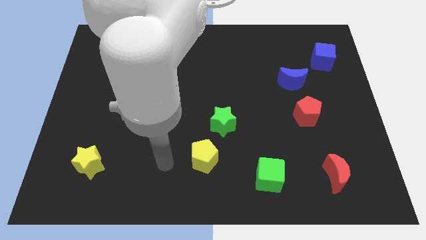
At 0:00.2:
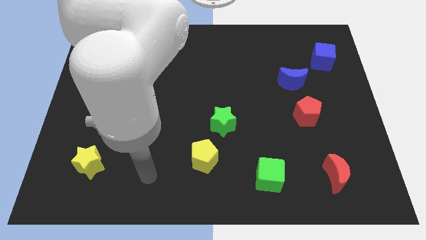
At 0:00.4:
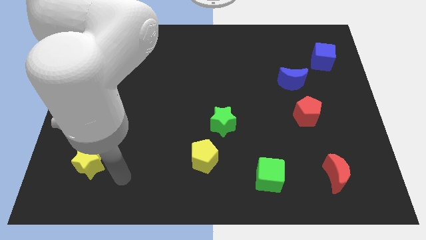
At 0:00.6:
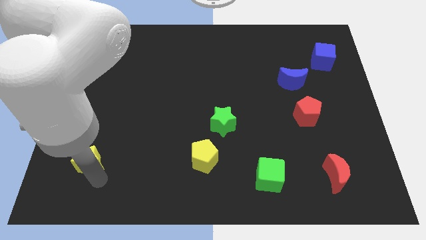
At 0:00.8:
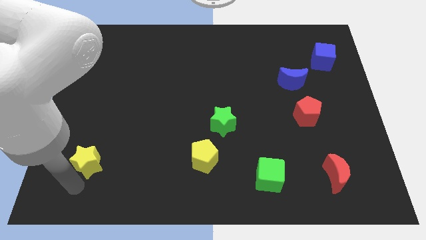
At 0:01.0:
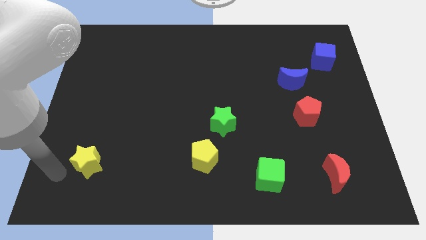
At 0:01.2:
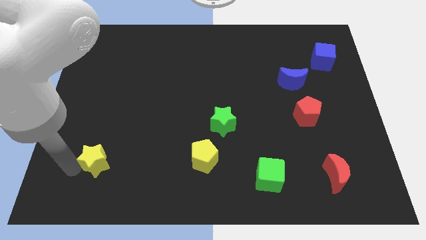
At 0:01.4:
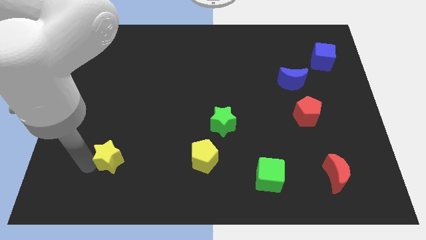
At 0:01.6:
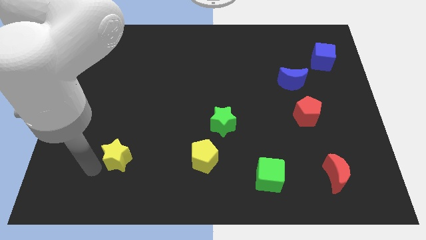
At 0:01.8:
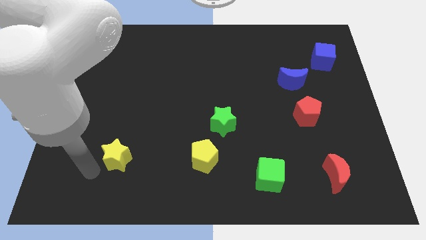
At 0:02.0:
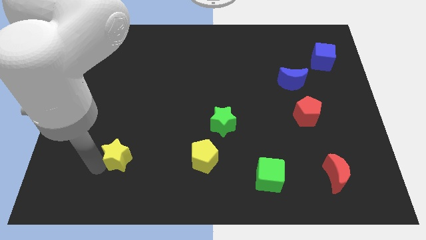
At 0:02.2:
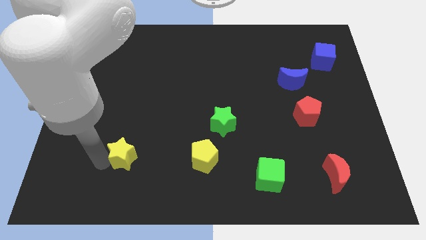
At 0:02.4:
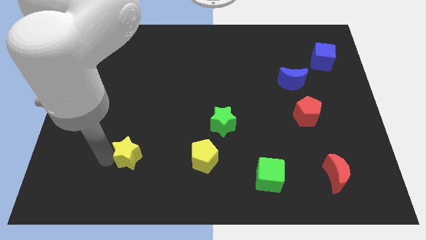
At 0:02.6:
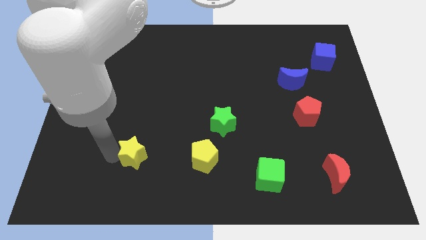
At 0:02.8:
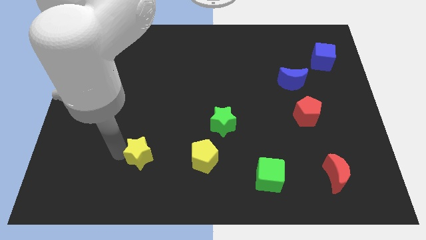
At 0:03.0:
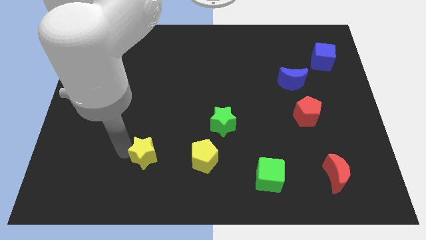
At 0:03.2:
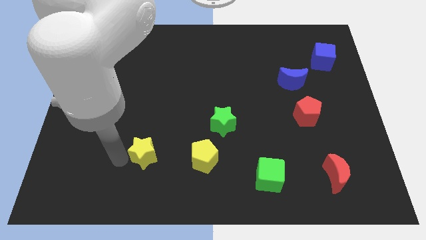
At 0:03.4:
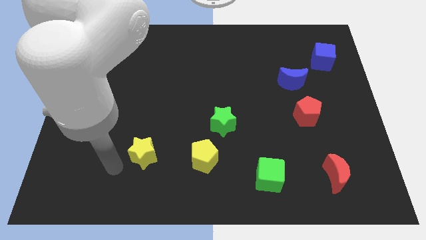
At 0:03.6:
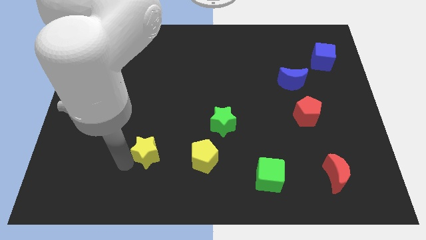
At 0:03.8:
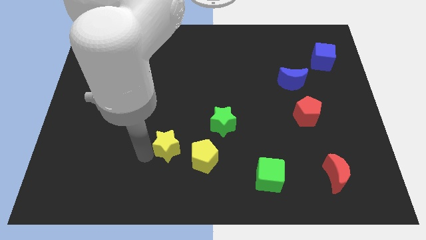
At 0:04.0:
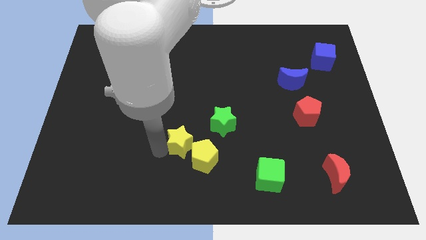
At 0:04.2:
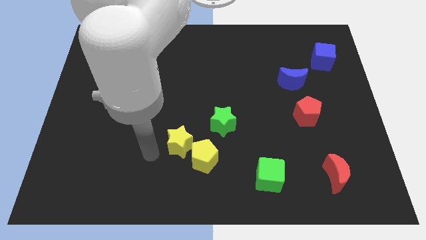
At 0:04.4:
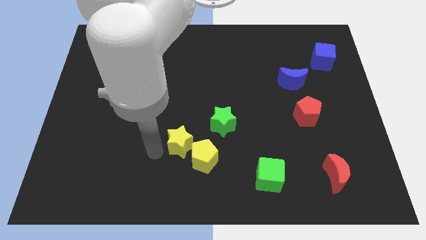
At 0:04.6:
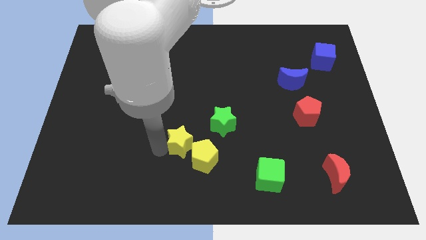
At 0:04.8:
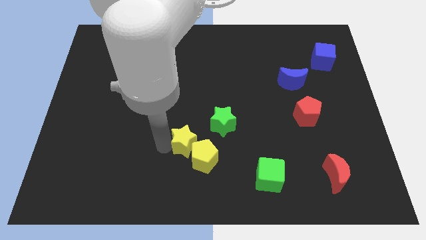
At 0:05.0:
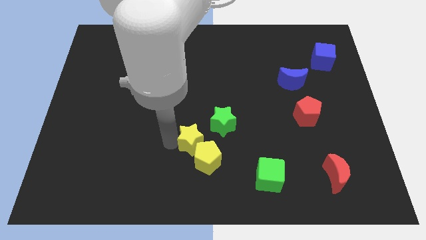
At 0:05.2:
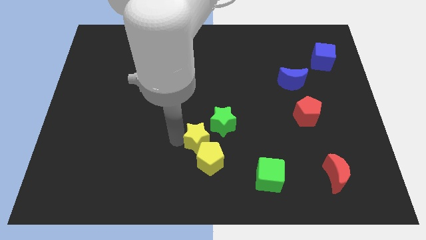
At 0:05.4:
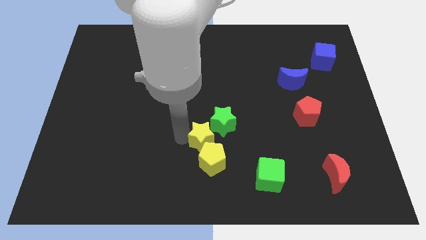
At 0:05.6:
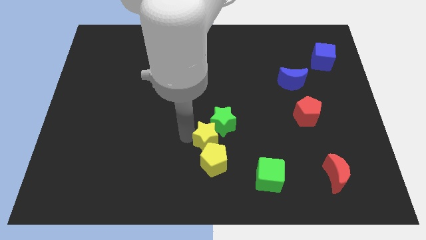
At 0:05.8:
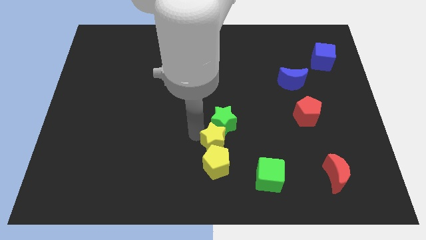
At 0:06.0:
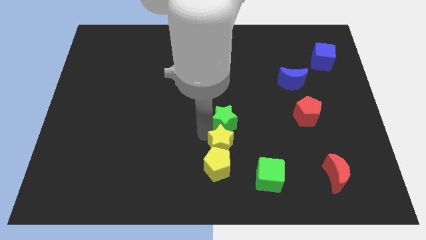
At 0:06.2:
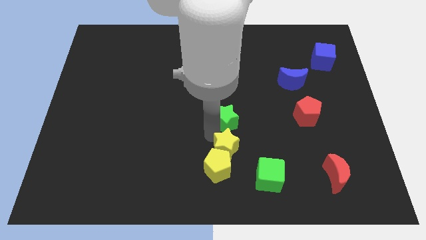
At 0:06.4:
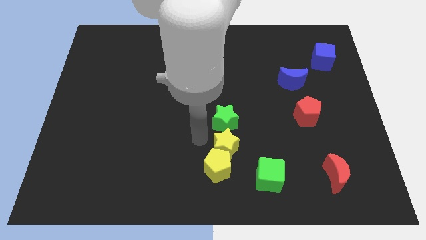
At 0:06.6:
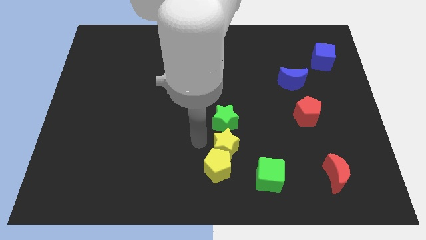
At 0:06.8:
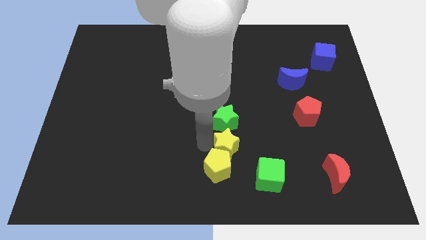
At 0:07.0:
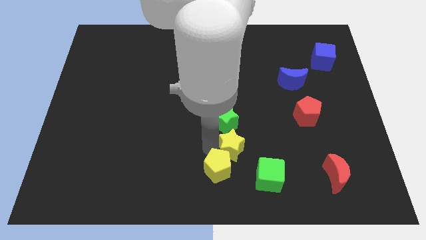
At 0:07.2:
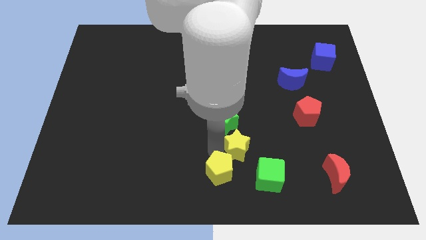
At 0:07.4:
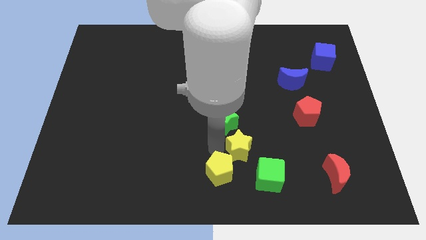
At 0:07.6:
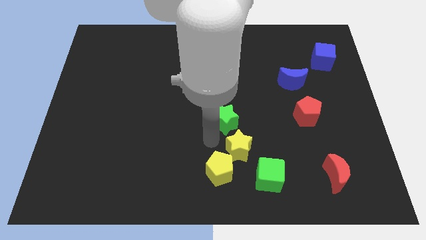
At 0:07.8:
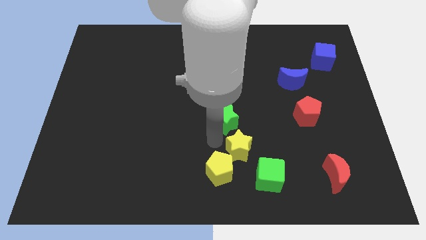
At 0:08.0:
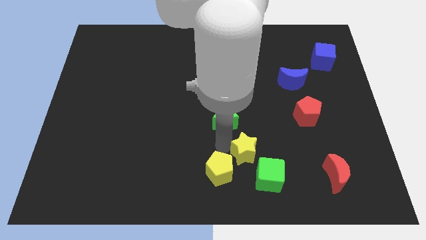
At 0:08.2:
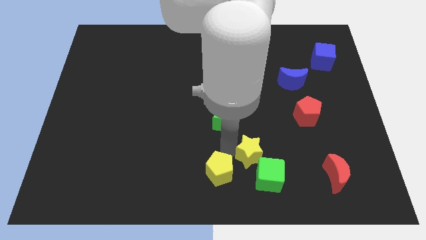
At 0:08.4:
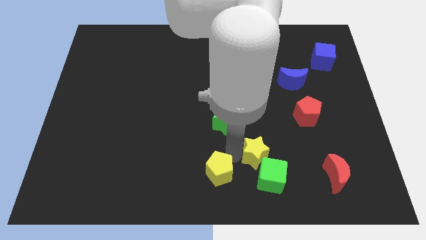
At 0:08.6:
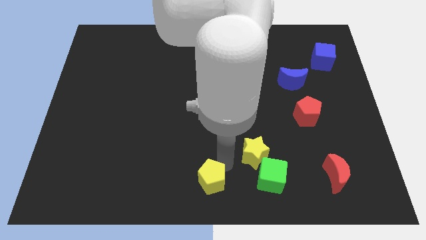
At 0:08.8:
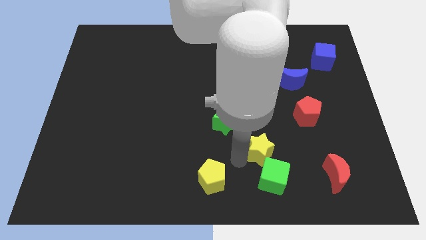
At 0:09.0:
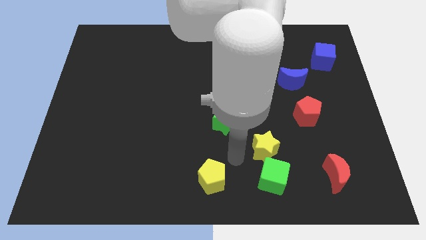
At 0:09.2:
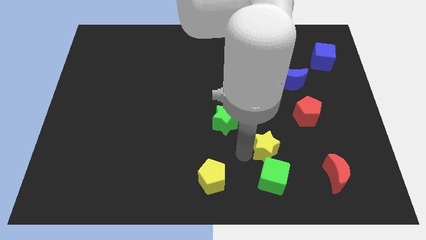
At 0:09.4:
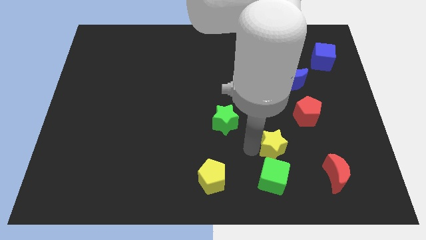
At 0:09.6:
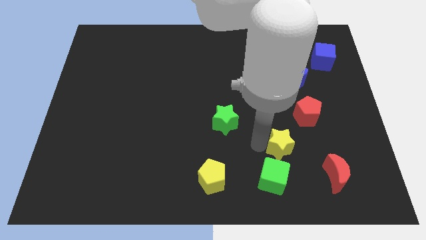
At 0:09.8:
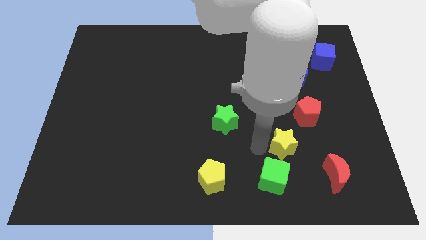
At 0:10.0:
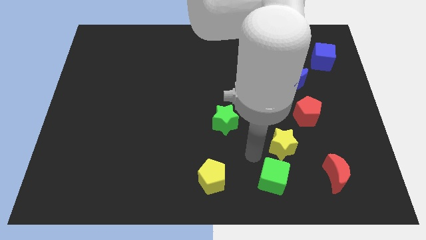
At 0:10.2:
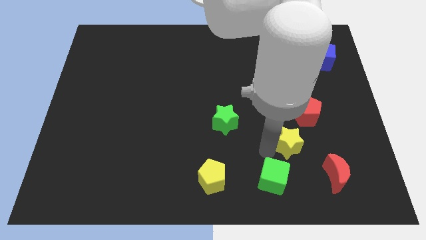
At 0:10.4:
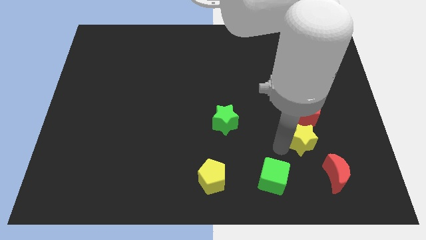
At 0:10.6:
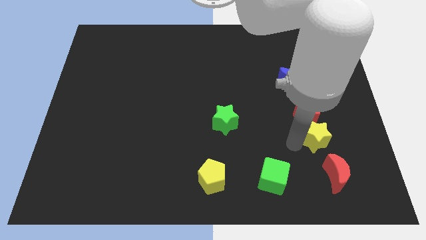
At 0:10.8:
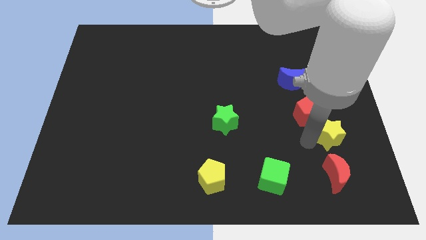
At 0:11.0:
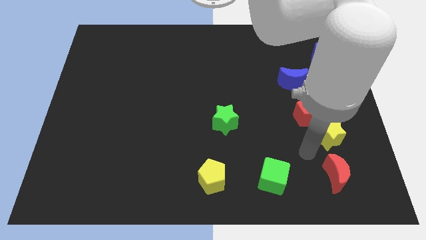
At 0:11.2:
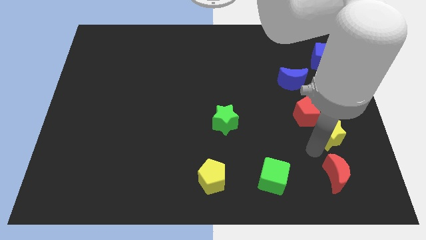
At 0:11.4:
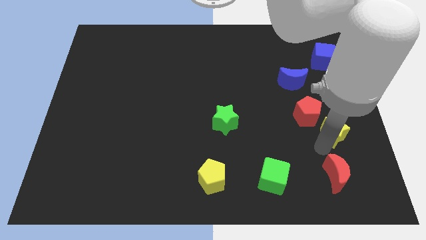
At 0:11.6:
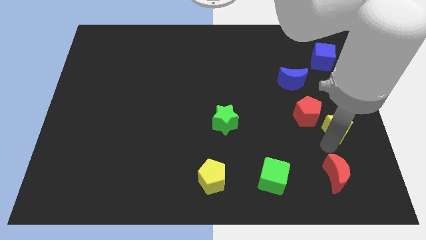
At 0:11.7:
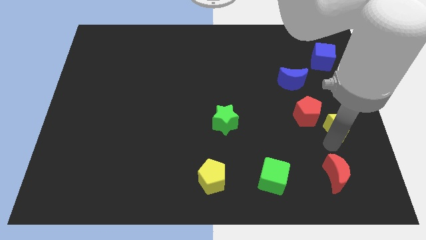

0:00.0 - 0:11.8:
push the yellow star to the center right
